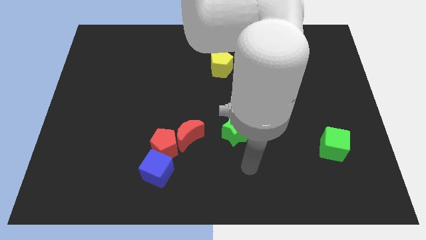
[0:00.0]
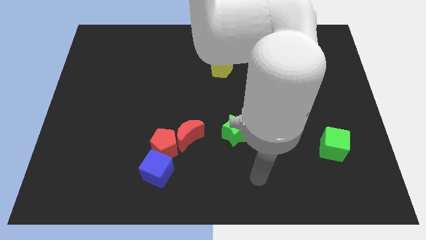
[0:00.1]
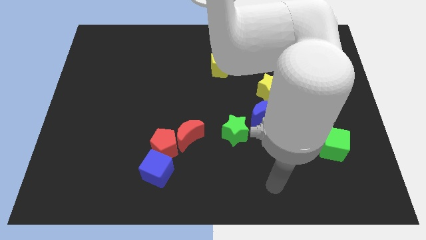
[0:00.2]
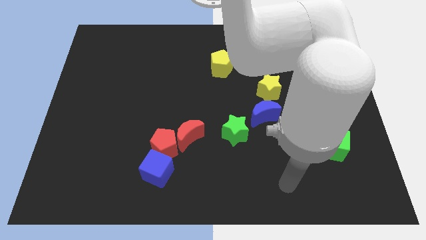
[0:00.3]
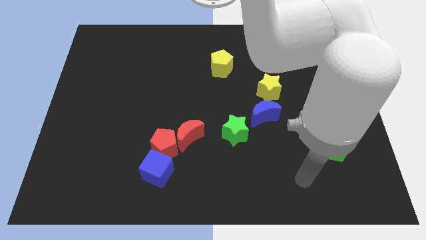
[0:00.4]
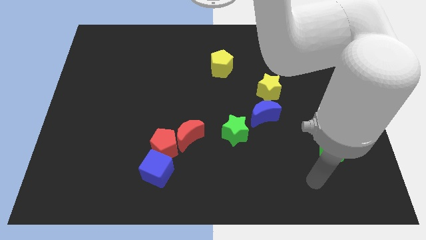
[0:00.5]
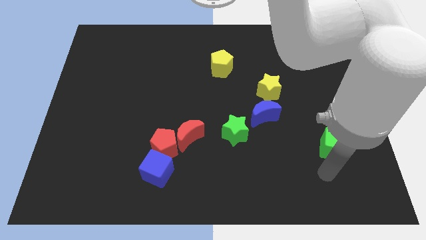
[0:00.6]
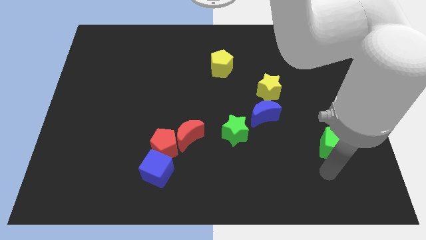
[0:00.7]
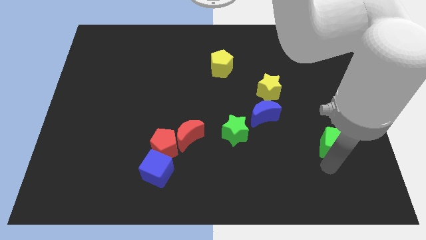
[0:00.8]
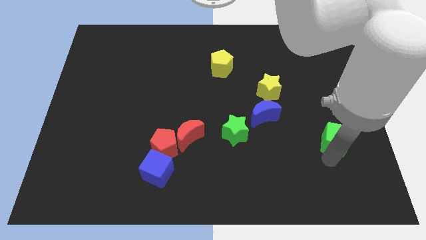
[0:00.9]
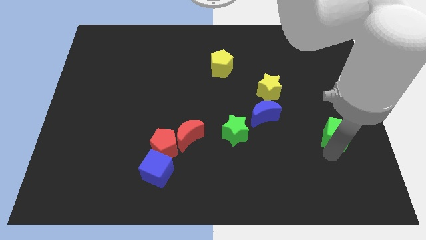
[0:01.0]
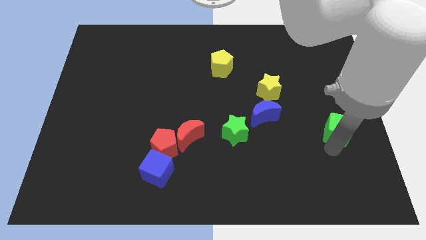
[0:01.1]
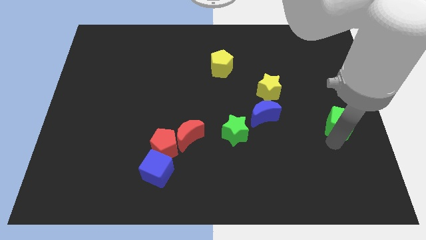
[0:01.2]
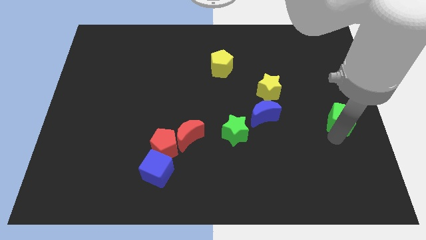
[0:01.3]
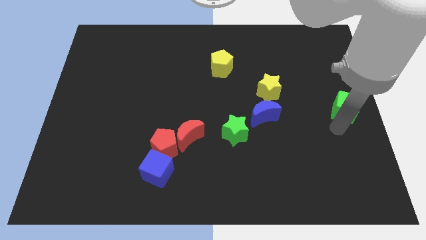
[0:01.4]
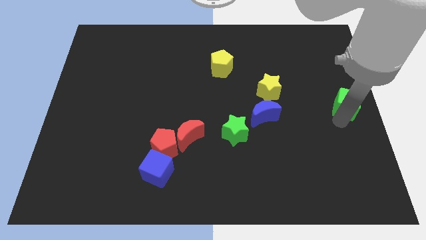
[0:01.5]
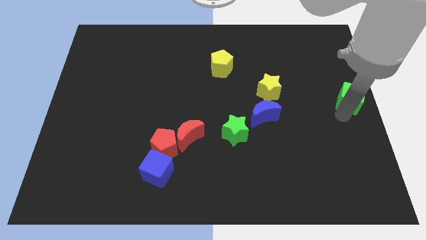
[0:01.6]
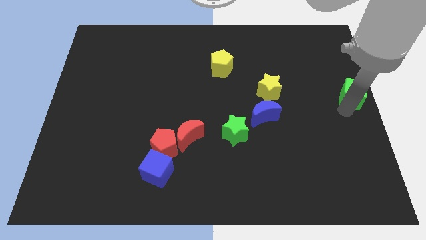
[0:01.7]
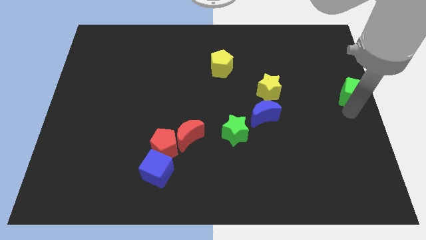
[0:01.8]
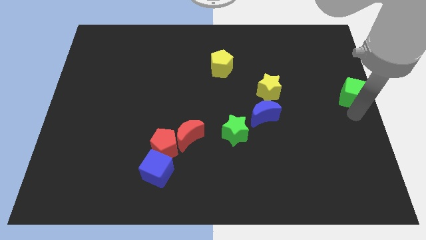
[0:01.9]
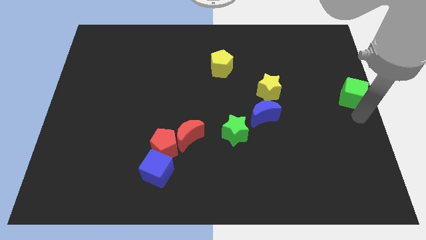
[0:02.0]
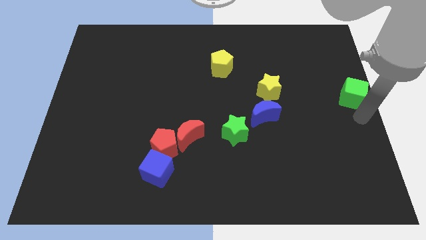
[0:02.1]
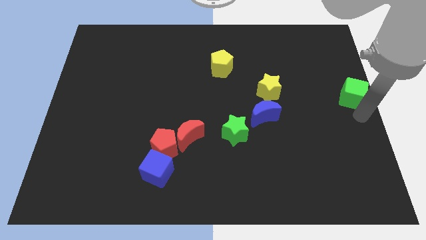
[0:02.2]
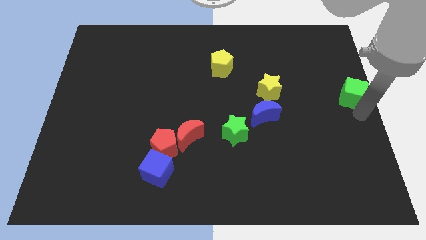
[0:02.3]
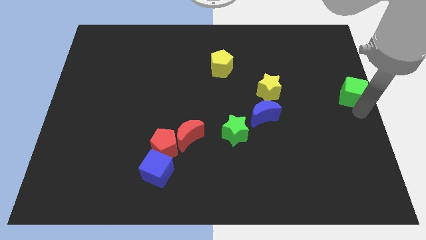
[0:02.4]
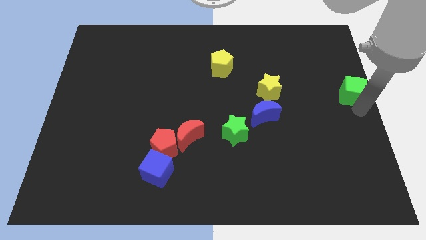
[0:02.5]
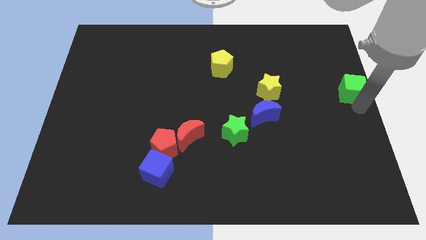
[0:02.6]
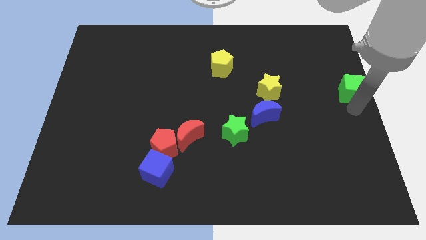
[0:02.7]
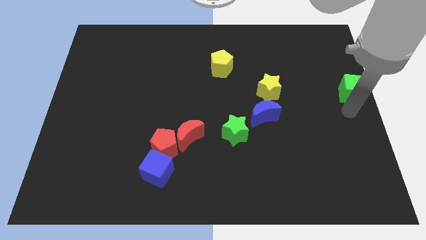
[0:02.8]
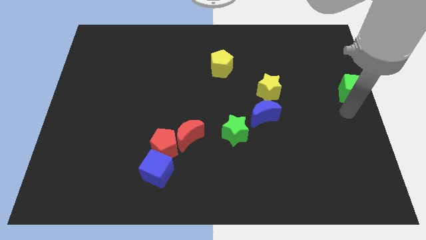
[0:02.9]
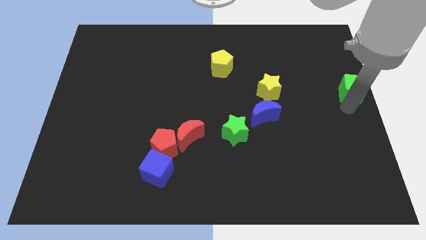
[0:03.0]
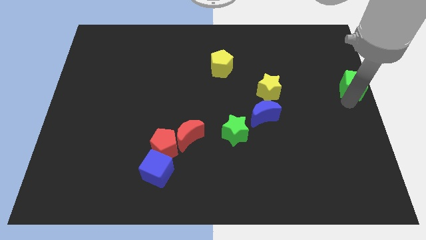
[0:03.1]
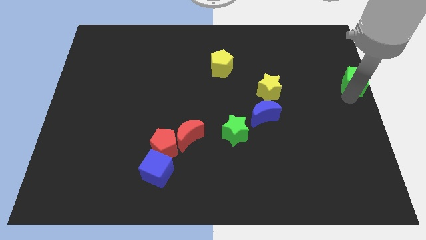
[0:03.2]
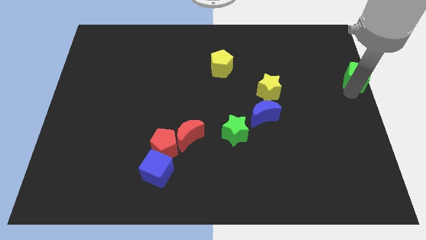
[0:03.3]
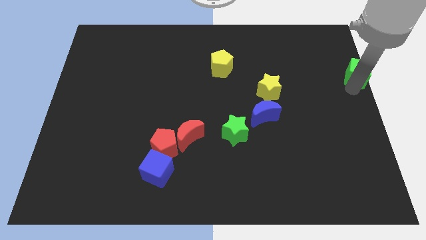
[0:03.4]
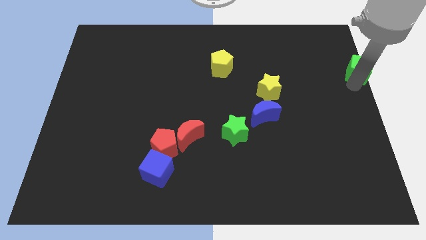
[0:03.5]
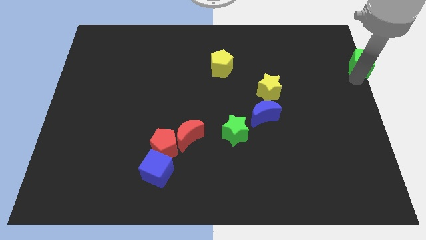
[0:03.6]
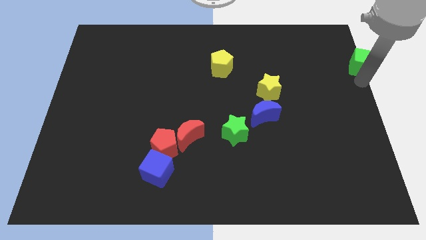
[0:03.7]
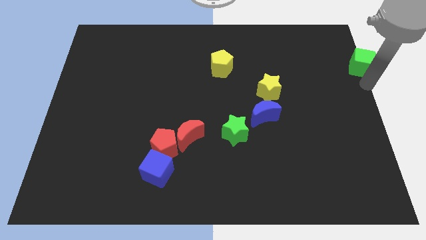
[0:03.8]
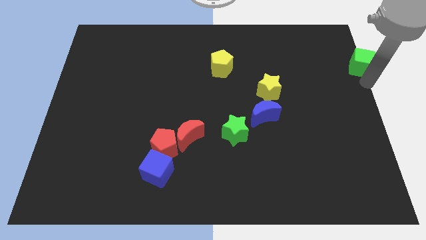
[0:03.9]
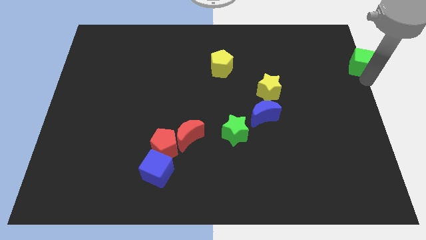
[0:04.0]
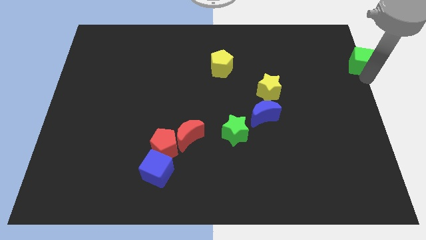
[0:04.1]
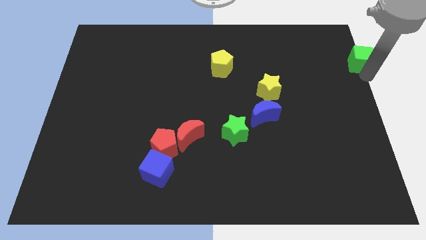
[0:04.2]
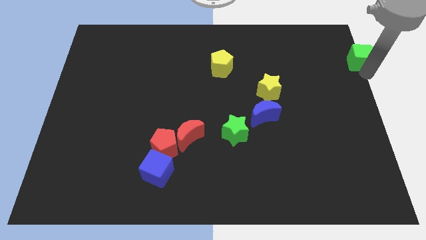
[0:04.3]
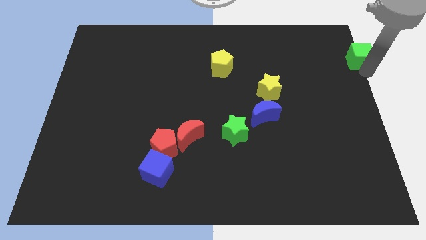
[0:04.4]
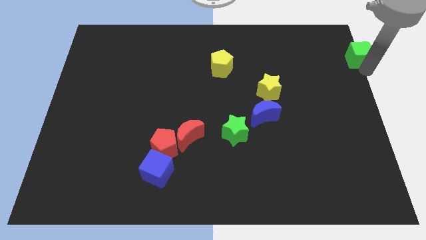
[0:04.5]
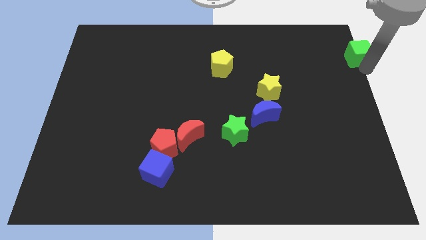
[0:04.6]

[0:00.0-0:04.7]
push the green cube to the top right corner

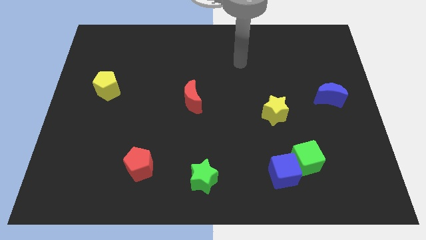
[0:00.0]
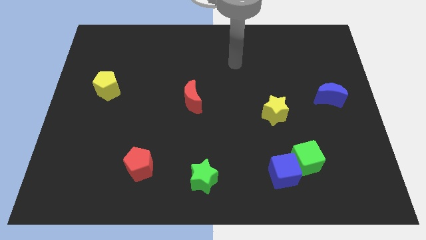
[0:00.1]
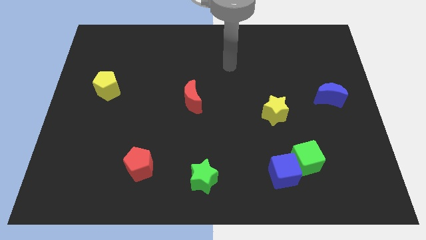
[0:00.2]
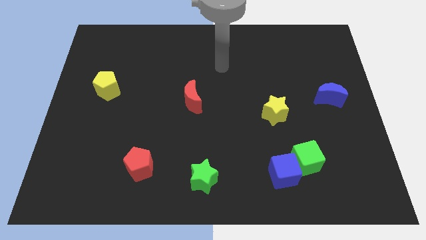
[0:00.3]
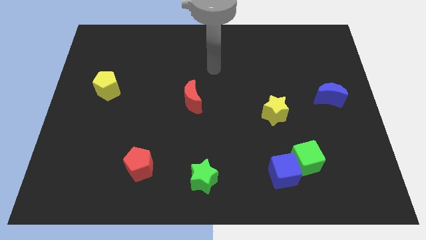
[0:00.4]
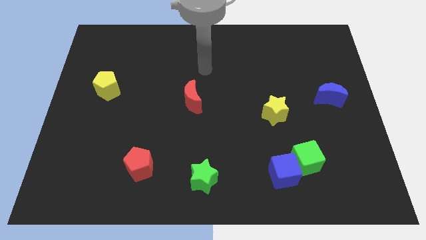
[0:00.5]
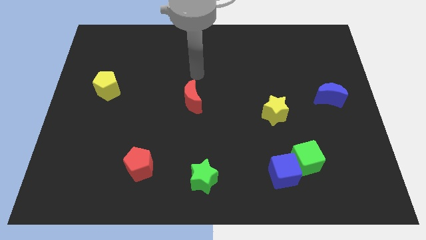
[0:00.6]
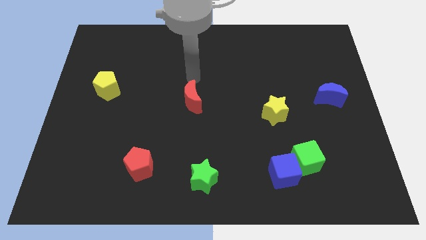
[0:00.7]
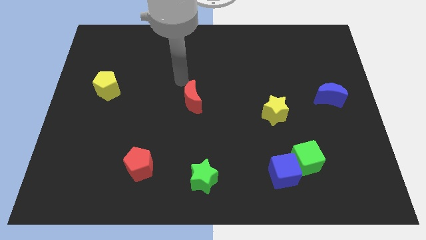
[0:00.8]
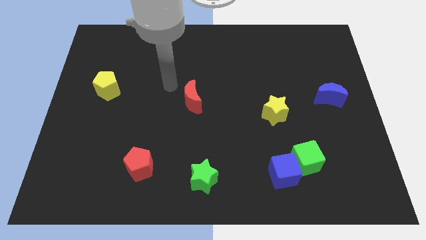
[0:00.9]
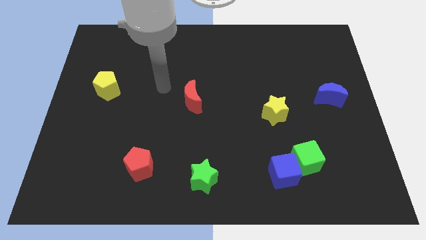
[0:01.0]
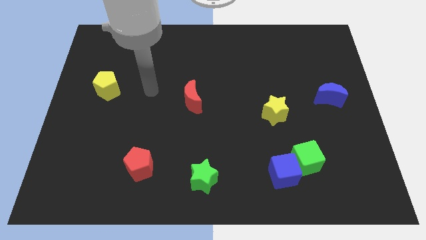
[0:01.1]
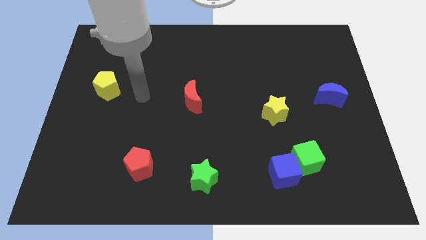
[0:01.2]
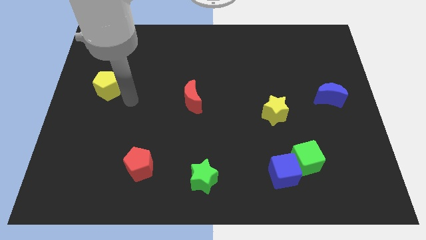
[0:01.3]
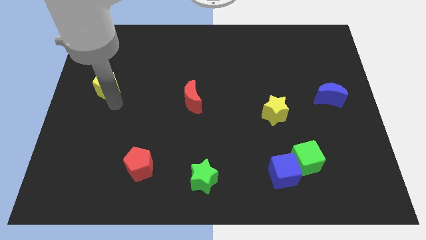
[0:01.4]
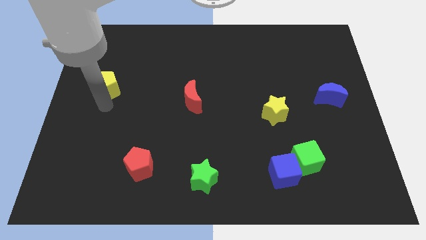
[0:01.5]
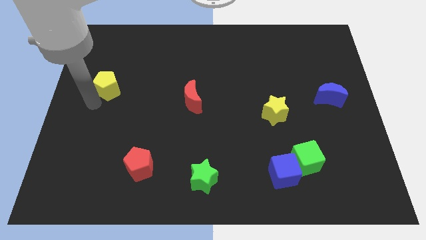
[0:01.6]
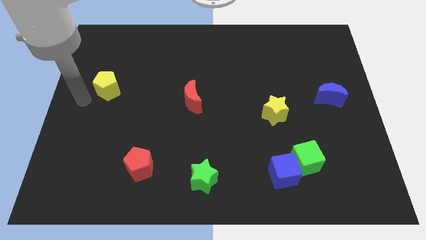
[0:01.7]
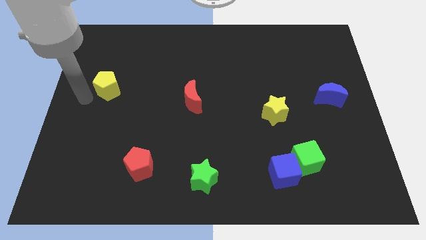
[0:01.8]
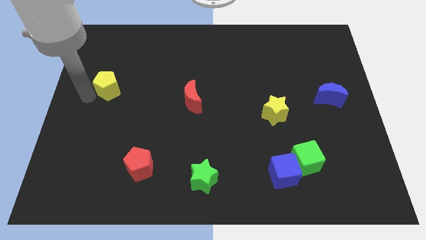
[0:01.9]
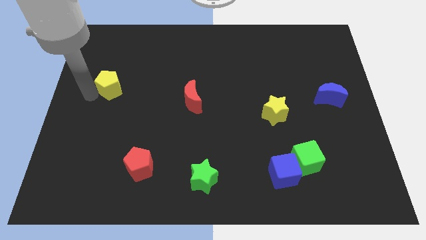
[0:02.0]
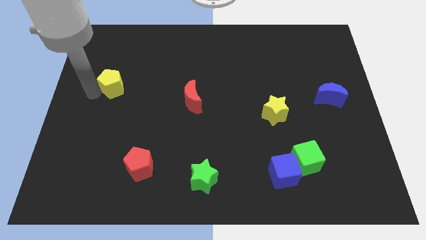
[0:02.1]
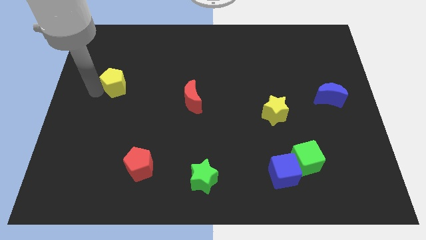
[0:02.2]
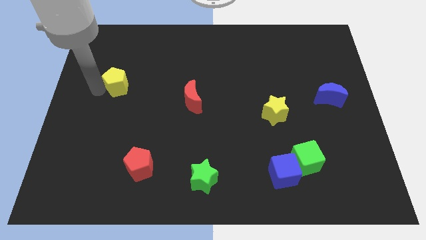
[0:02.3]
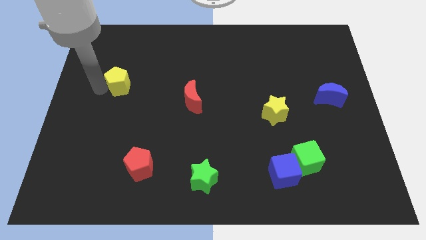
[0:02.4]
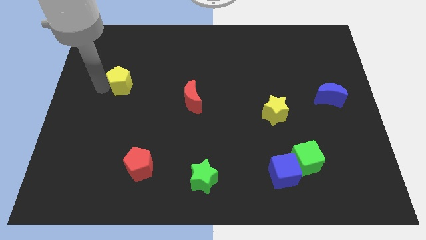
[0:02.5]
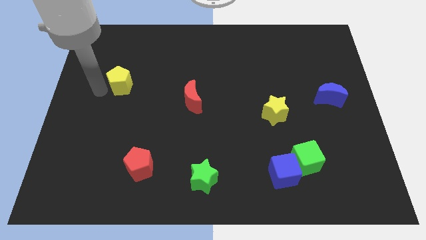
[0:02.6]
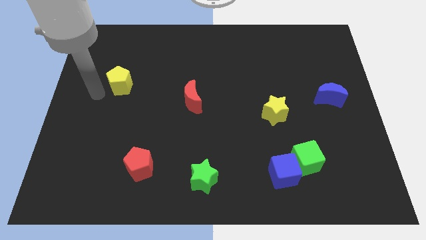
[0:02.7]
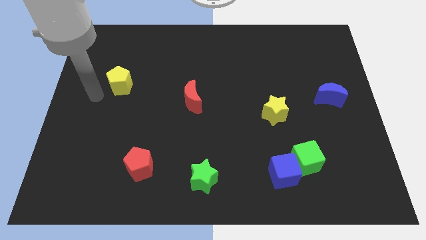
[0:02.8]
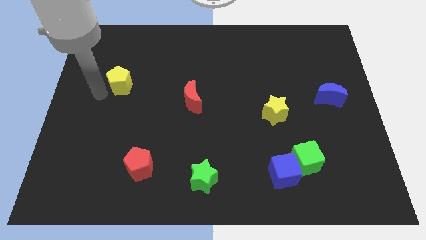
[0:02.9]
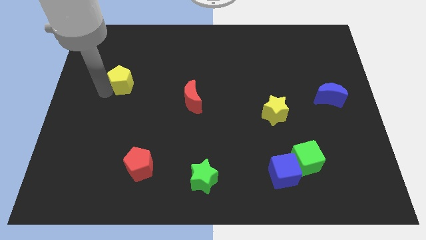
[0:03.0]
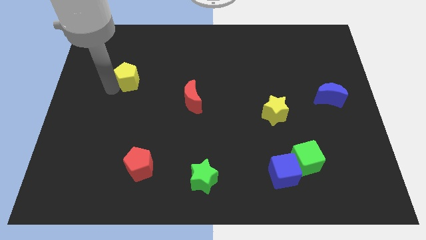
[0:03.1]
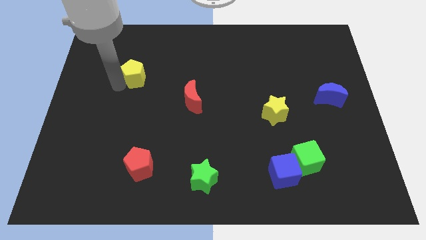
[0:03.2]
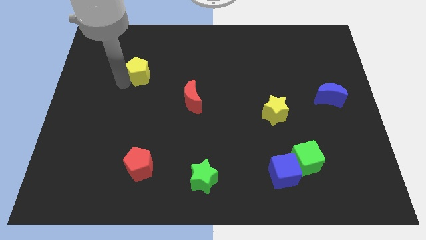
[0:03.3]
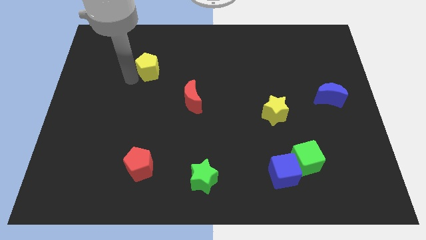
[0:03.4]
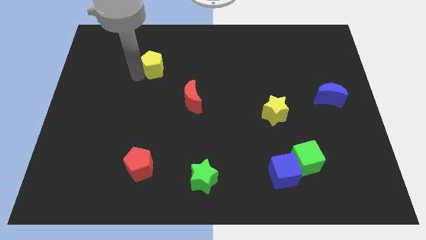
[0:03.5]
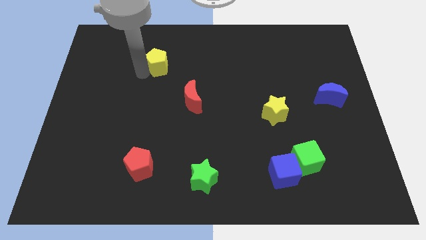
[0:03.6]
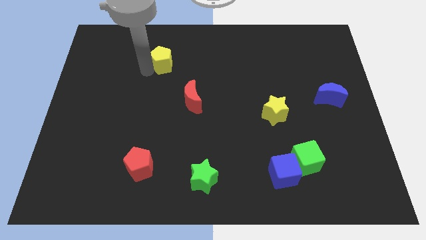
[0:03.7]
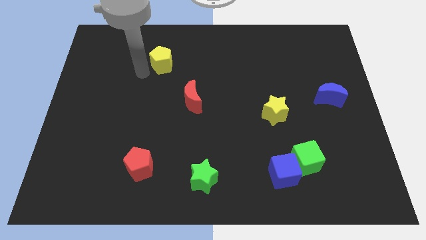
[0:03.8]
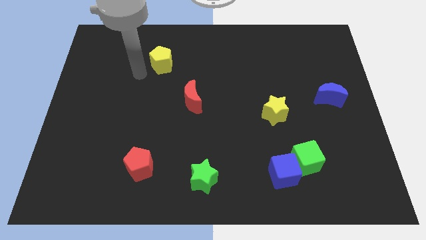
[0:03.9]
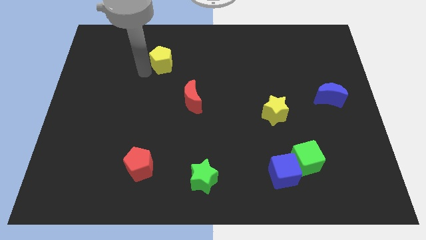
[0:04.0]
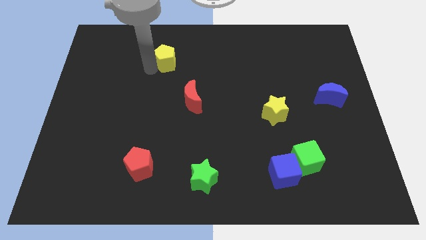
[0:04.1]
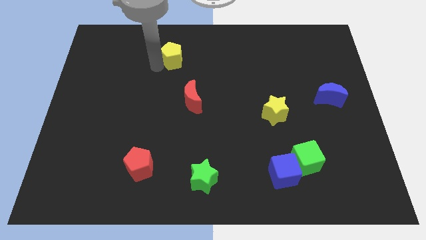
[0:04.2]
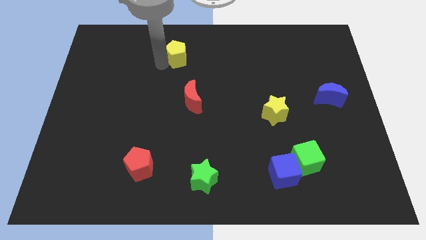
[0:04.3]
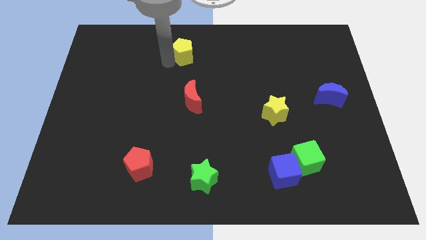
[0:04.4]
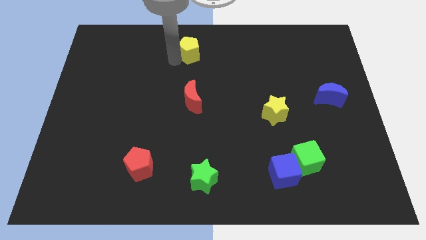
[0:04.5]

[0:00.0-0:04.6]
push the yellow pentagon to the towards your base
